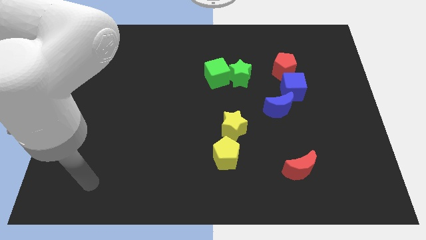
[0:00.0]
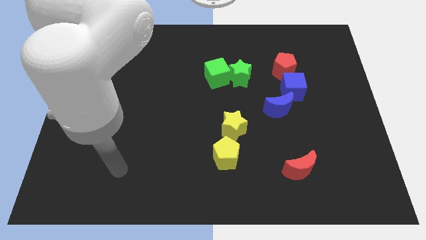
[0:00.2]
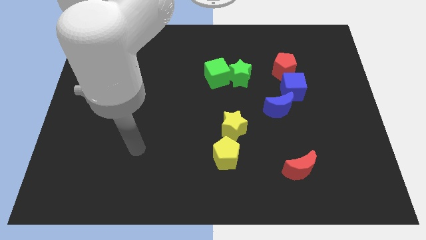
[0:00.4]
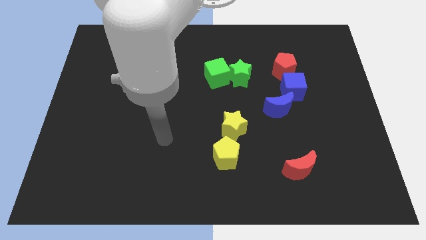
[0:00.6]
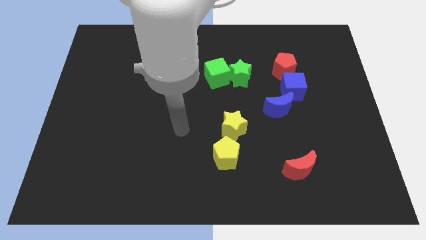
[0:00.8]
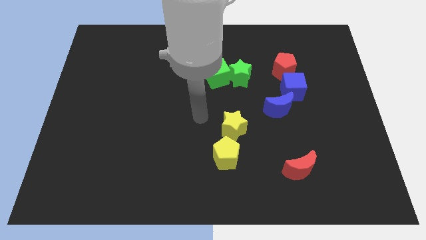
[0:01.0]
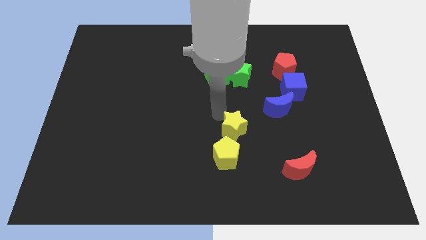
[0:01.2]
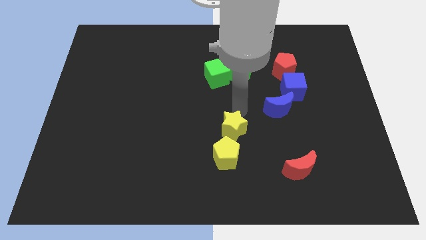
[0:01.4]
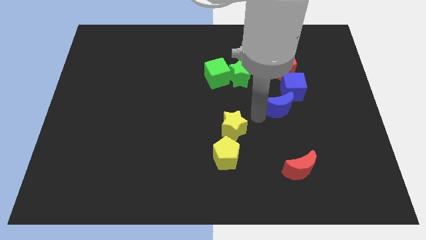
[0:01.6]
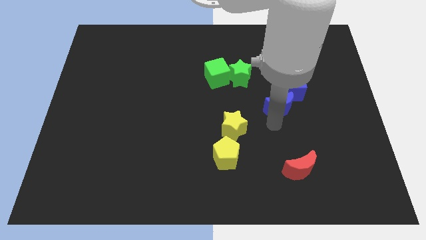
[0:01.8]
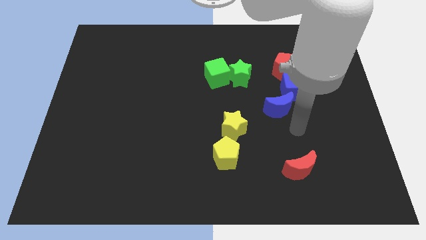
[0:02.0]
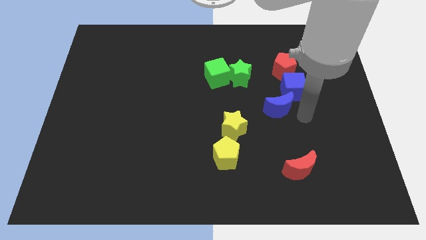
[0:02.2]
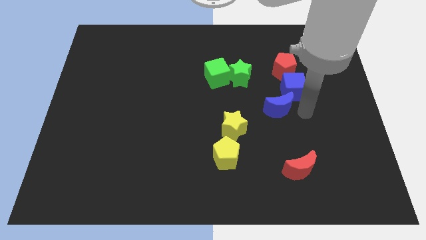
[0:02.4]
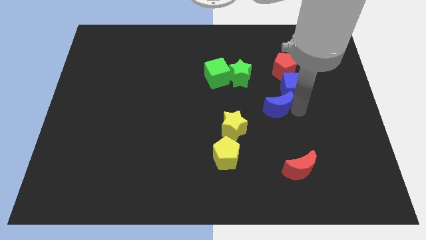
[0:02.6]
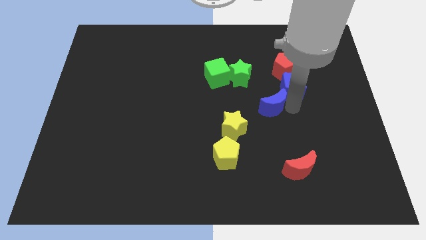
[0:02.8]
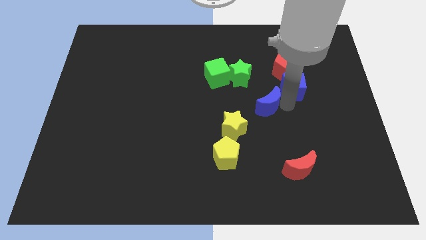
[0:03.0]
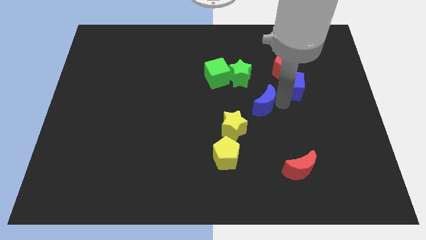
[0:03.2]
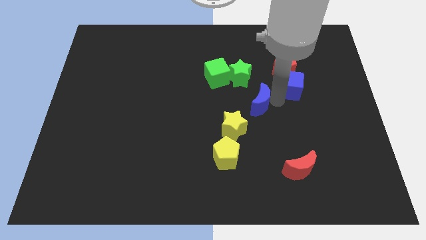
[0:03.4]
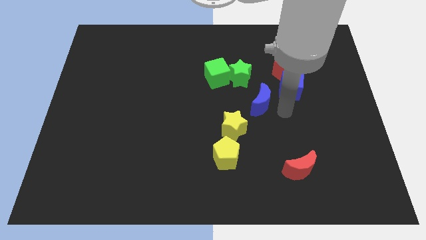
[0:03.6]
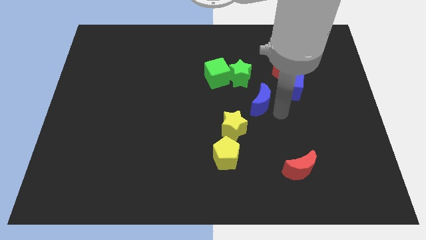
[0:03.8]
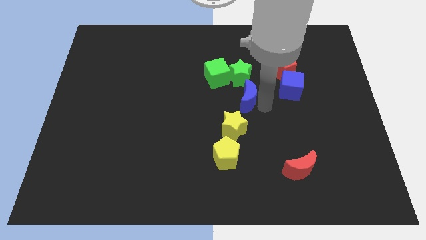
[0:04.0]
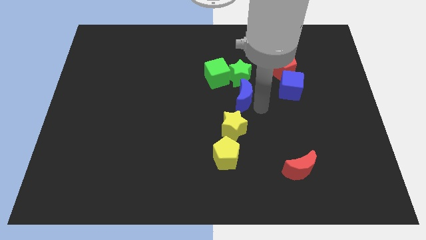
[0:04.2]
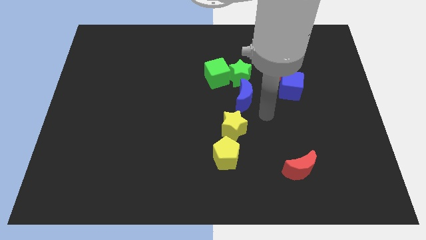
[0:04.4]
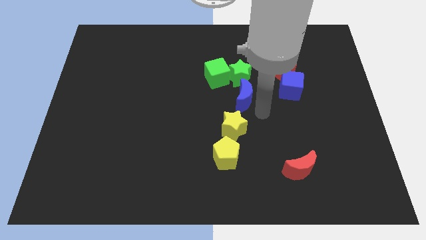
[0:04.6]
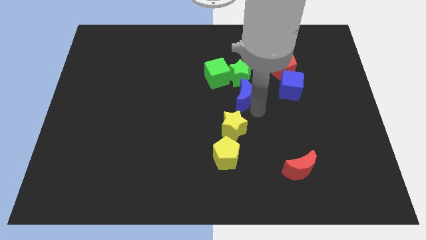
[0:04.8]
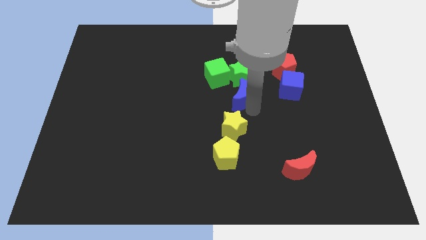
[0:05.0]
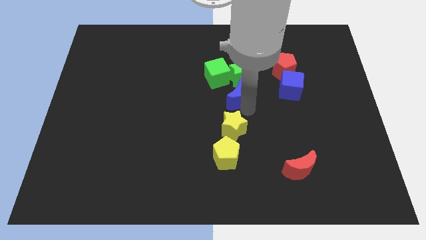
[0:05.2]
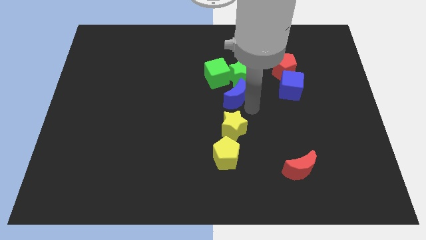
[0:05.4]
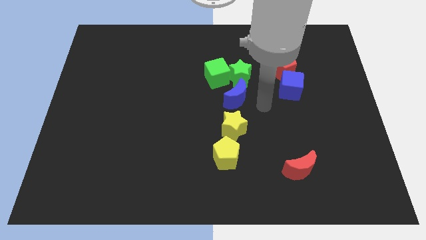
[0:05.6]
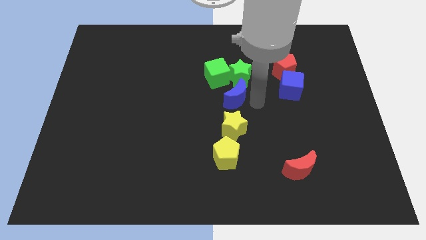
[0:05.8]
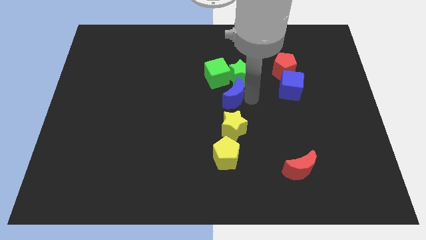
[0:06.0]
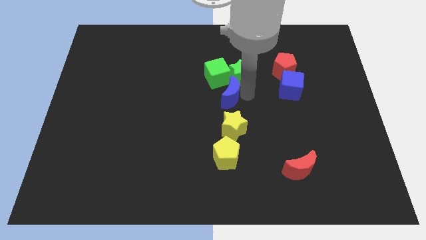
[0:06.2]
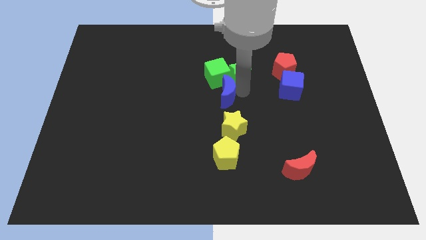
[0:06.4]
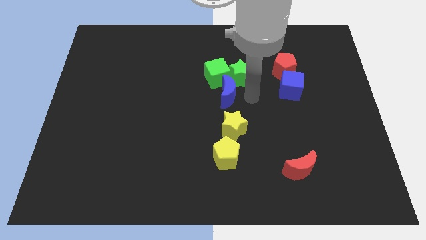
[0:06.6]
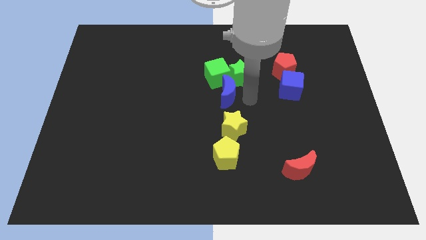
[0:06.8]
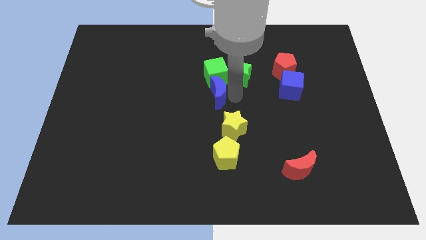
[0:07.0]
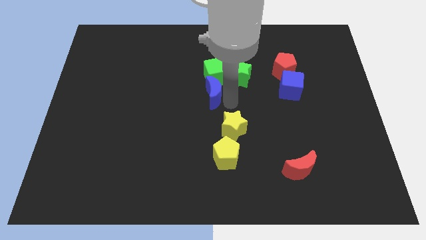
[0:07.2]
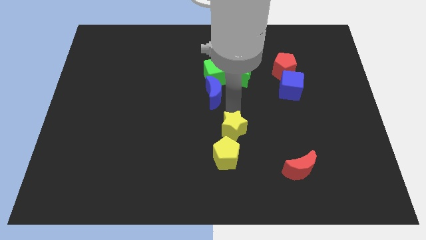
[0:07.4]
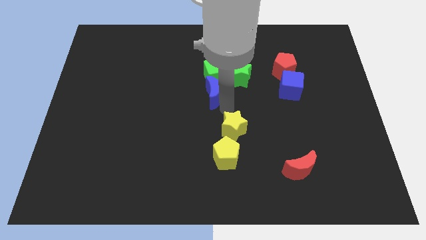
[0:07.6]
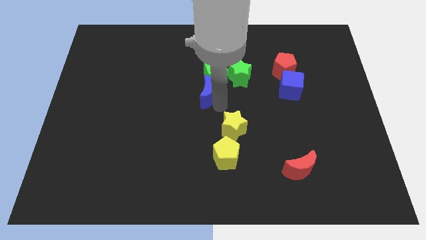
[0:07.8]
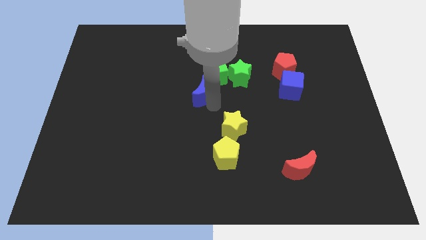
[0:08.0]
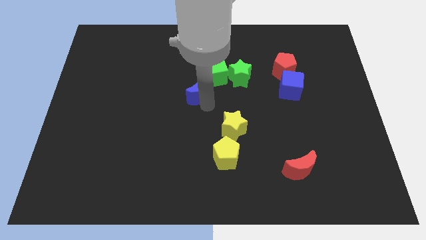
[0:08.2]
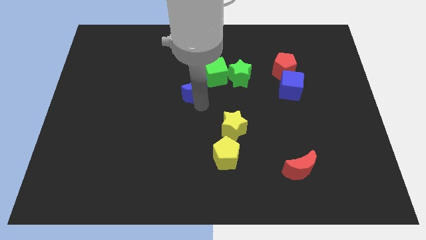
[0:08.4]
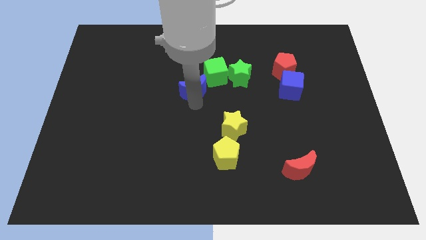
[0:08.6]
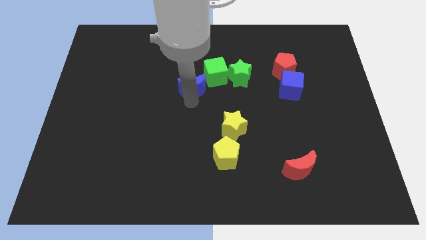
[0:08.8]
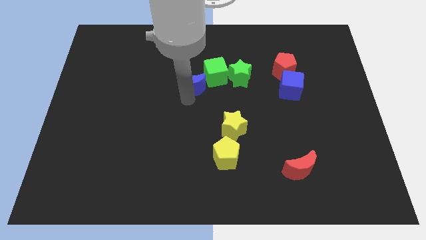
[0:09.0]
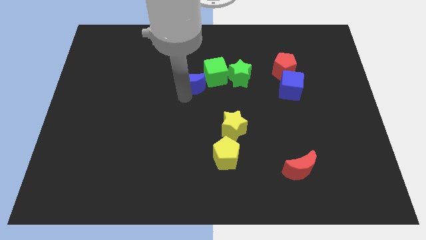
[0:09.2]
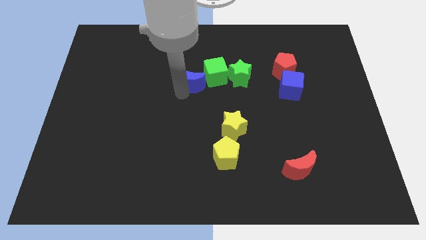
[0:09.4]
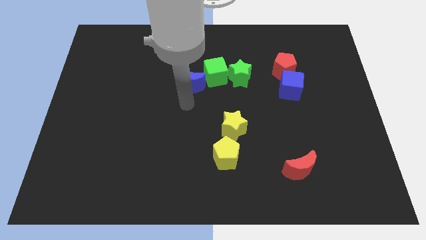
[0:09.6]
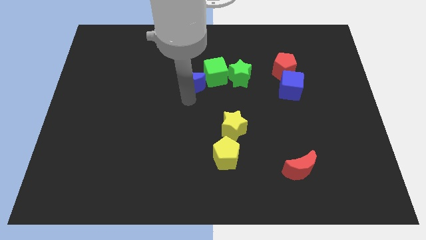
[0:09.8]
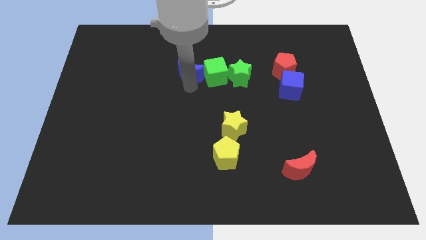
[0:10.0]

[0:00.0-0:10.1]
push the blue moon to the top left of the green cube

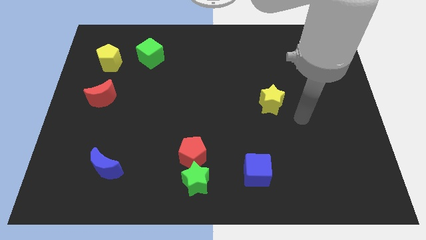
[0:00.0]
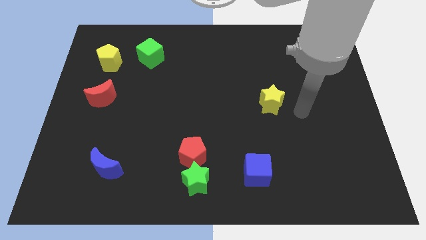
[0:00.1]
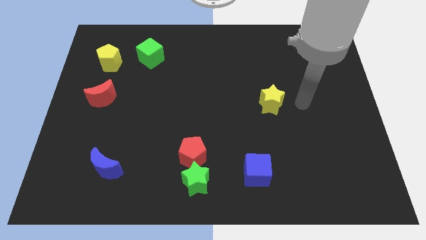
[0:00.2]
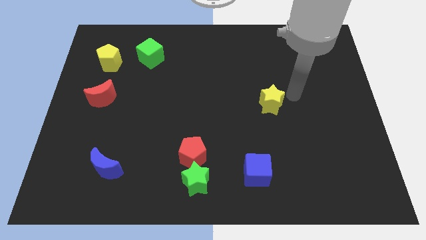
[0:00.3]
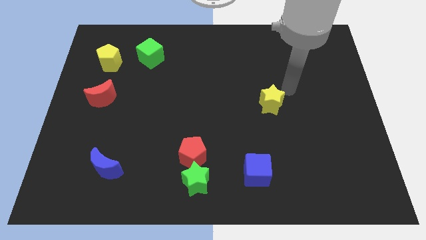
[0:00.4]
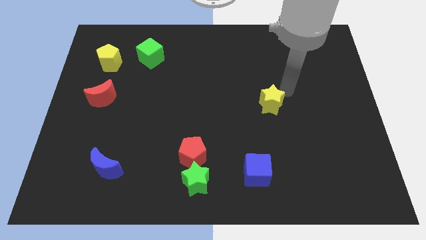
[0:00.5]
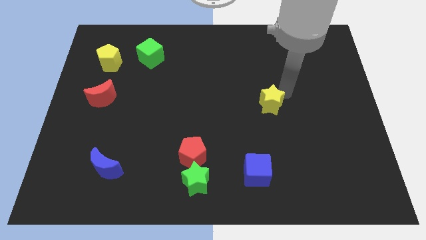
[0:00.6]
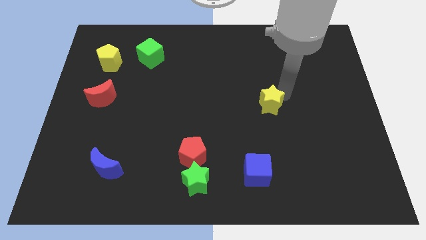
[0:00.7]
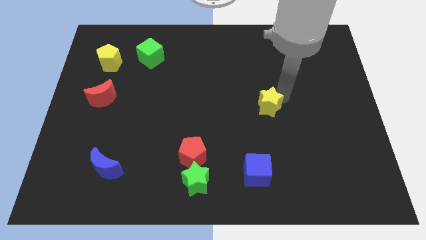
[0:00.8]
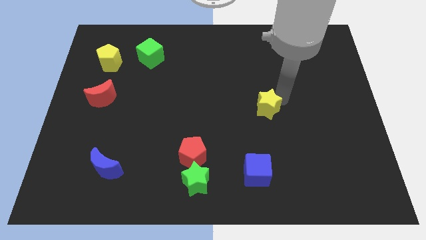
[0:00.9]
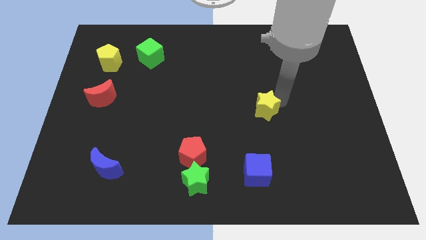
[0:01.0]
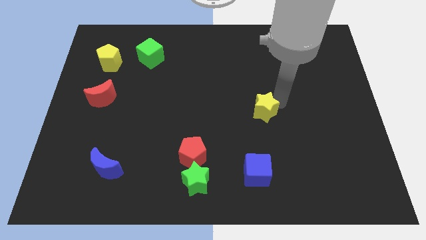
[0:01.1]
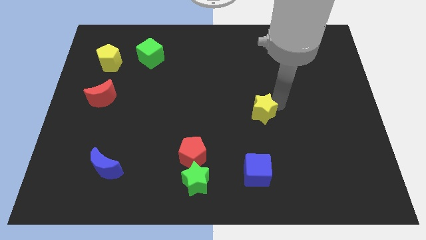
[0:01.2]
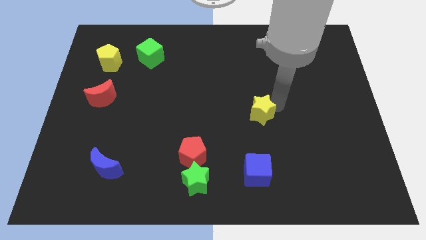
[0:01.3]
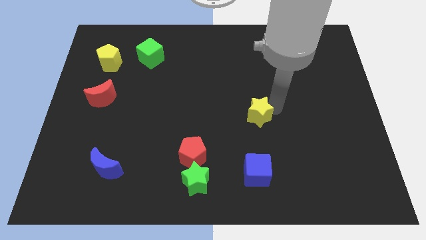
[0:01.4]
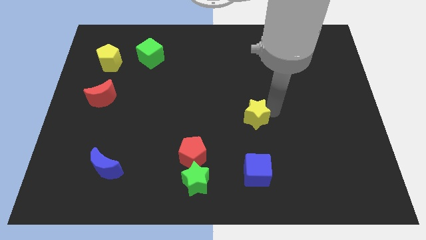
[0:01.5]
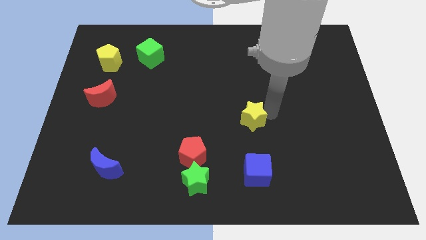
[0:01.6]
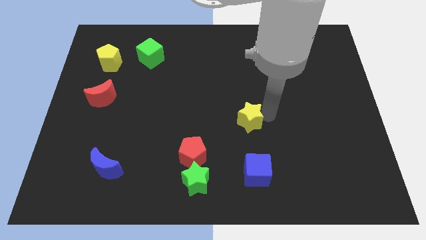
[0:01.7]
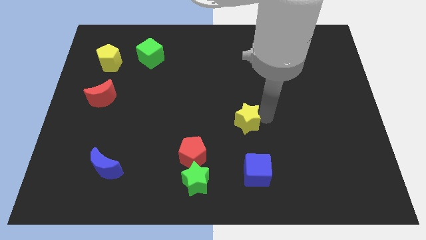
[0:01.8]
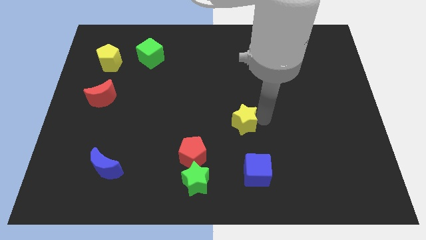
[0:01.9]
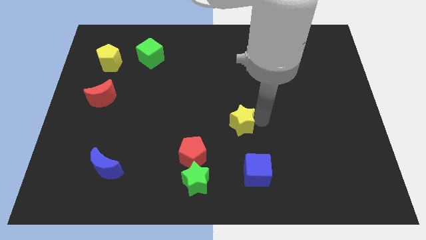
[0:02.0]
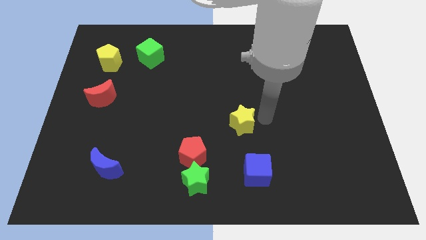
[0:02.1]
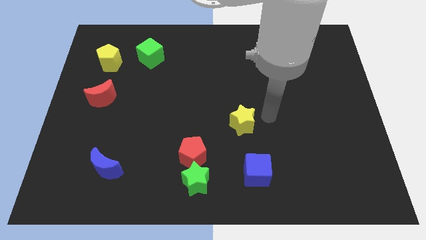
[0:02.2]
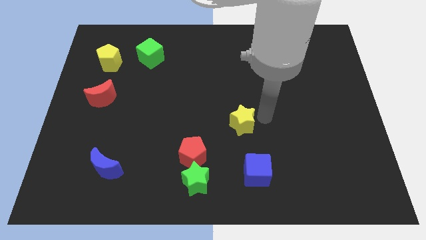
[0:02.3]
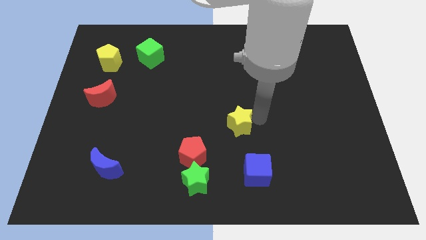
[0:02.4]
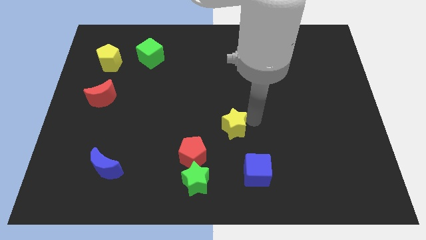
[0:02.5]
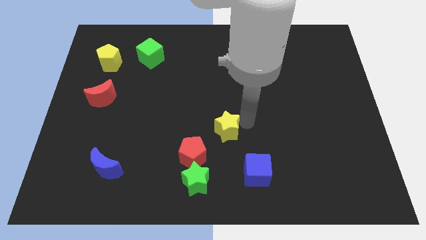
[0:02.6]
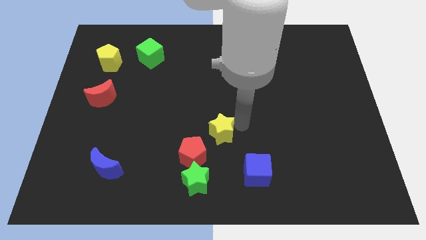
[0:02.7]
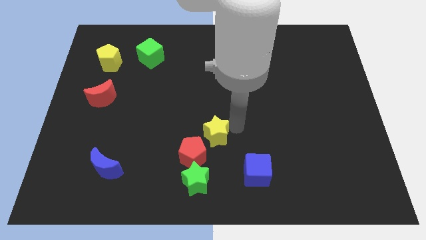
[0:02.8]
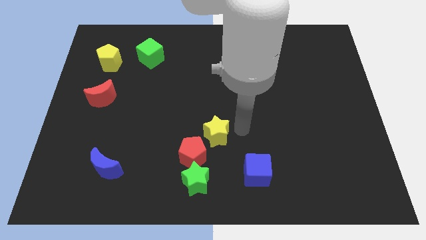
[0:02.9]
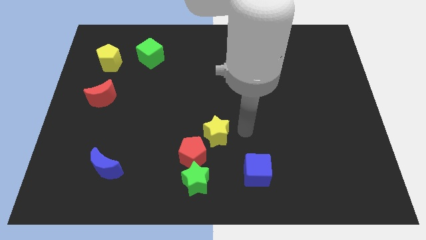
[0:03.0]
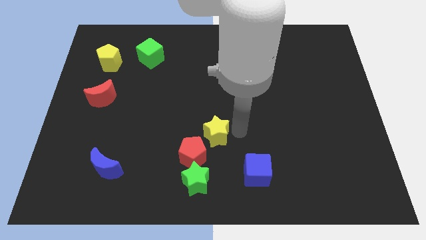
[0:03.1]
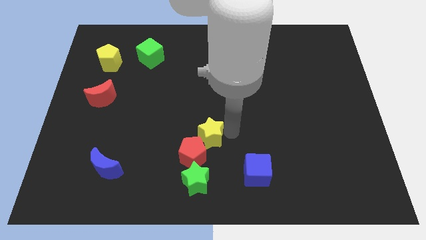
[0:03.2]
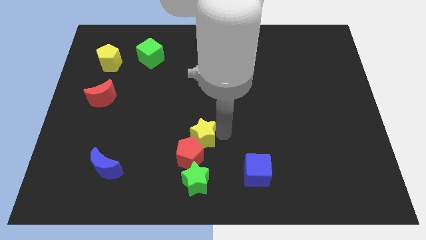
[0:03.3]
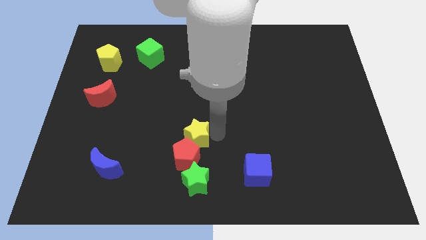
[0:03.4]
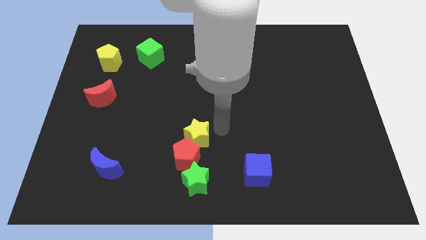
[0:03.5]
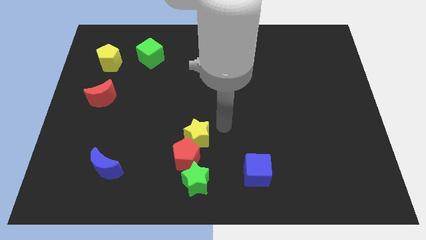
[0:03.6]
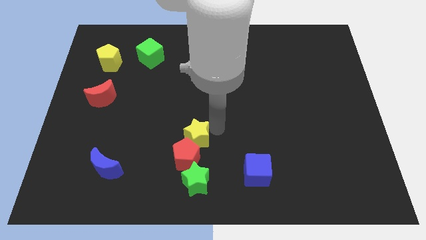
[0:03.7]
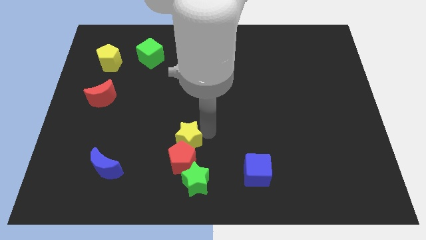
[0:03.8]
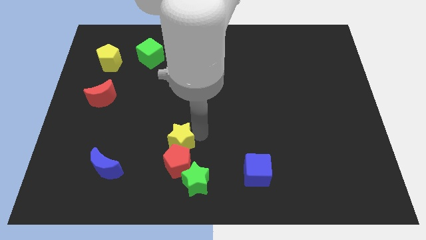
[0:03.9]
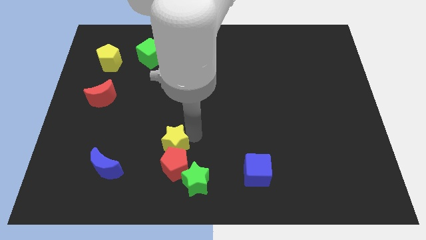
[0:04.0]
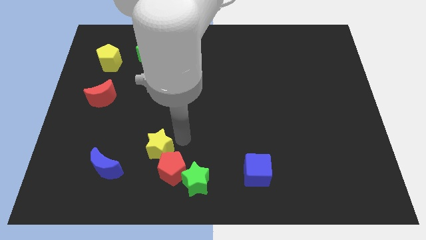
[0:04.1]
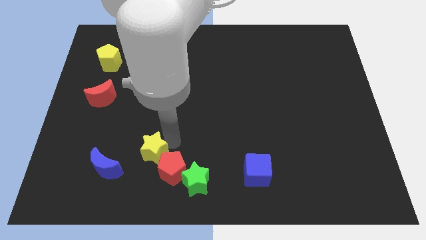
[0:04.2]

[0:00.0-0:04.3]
put the yellow star left of the red pentagon
